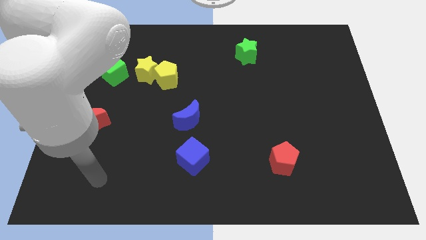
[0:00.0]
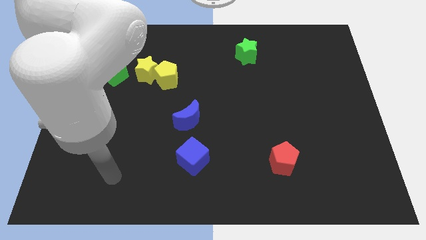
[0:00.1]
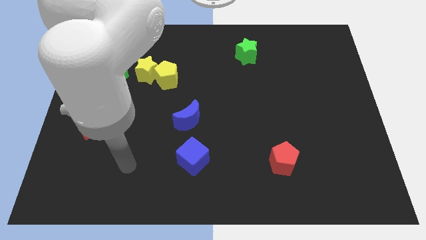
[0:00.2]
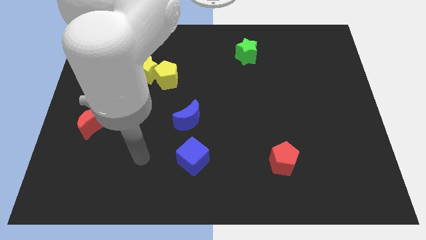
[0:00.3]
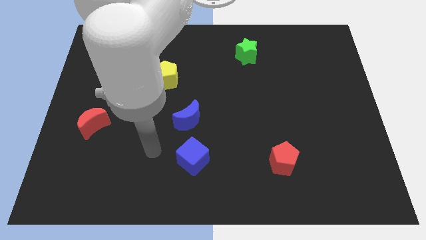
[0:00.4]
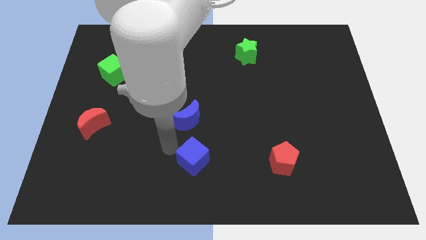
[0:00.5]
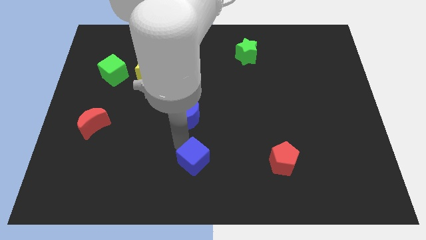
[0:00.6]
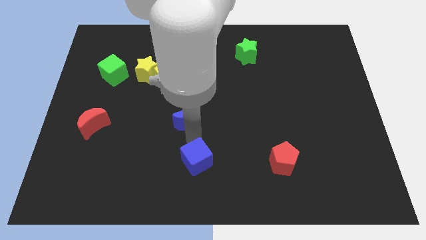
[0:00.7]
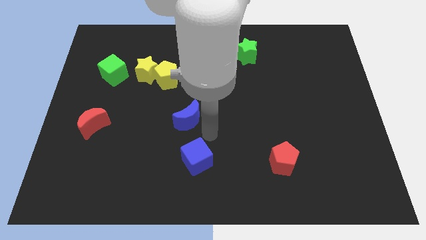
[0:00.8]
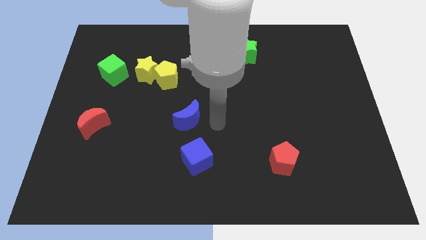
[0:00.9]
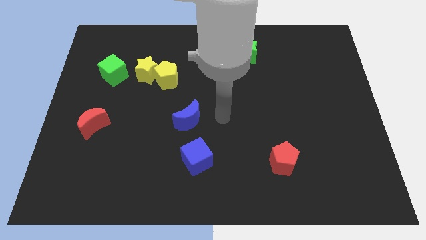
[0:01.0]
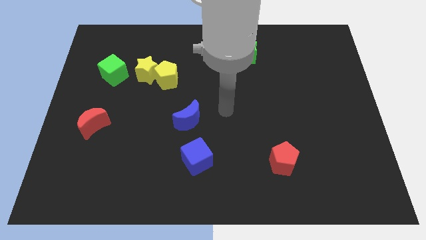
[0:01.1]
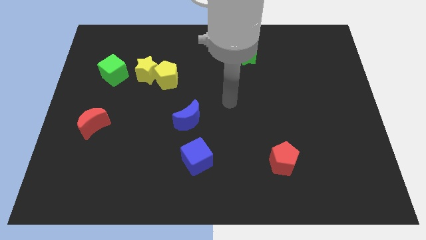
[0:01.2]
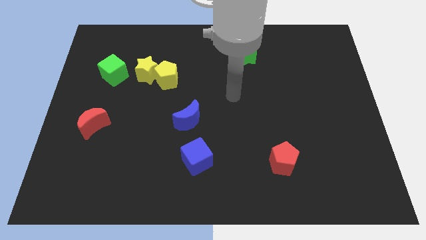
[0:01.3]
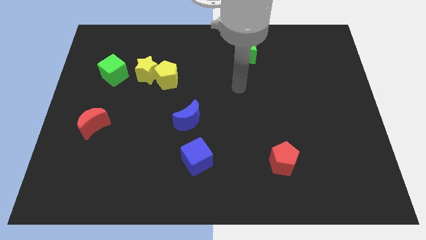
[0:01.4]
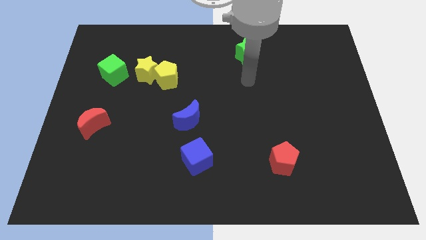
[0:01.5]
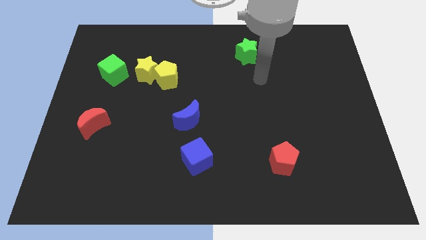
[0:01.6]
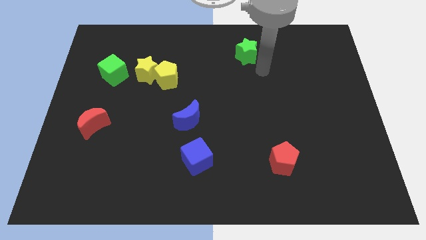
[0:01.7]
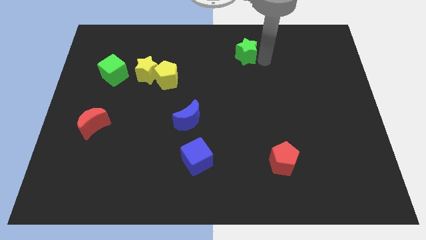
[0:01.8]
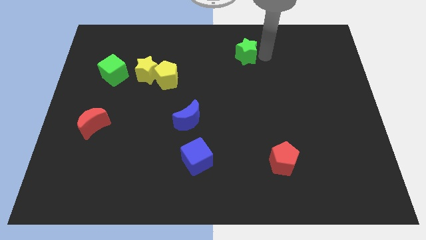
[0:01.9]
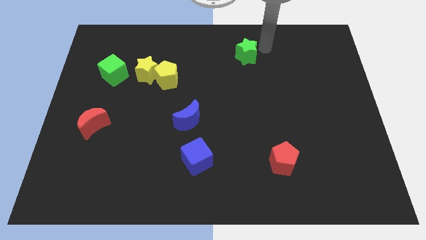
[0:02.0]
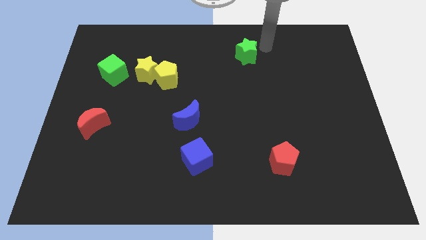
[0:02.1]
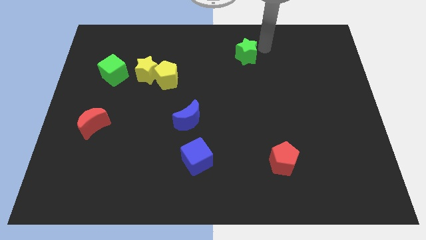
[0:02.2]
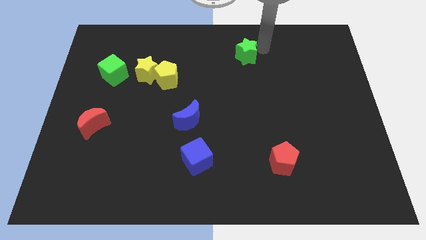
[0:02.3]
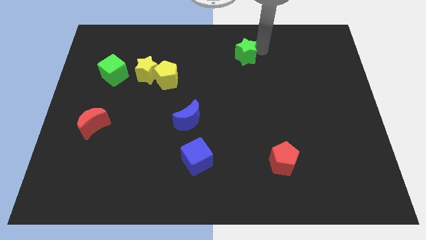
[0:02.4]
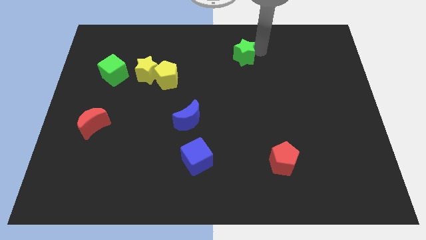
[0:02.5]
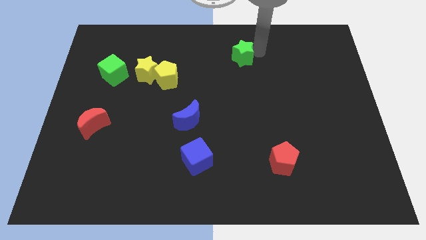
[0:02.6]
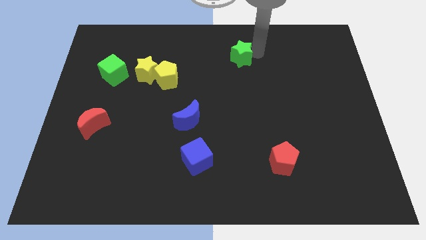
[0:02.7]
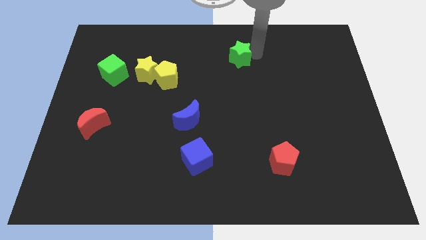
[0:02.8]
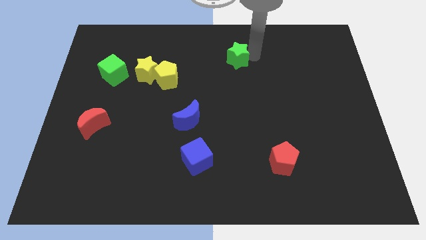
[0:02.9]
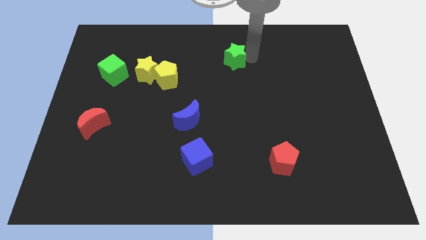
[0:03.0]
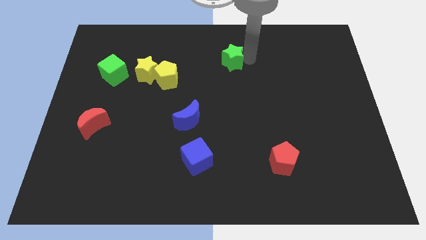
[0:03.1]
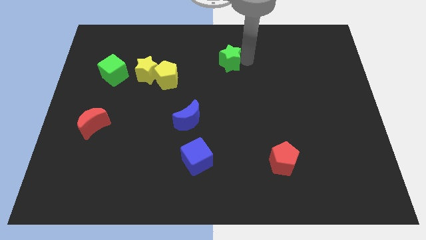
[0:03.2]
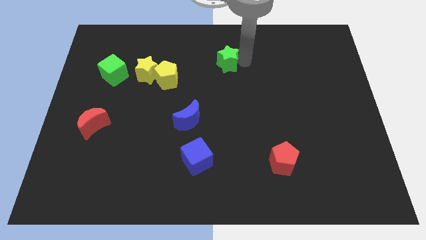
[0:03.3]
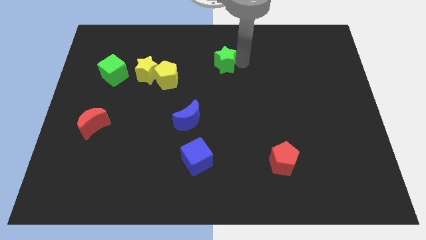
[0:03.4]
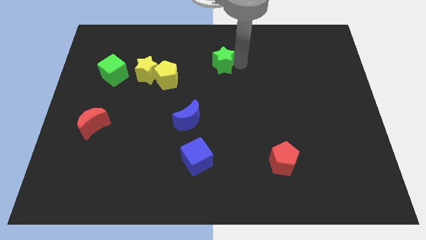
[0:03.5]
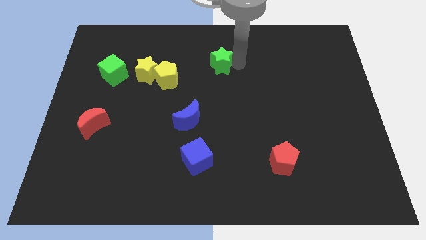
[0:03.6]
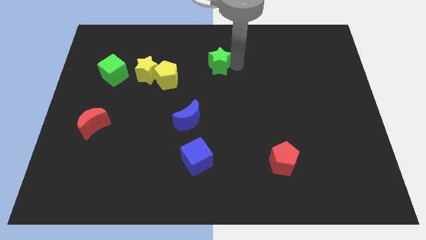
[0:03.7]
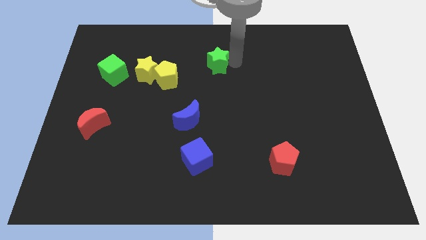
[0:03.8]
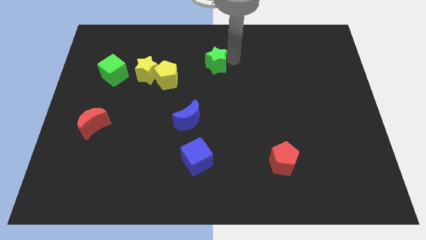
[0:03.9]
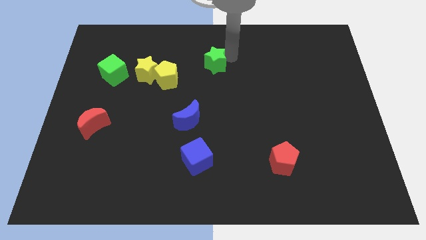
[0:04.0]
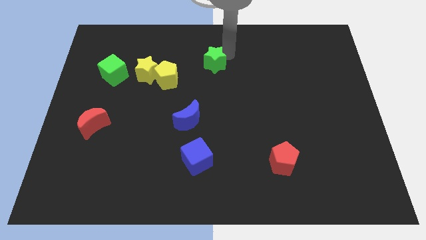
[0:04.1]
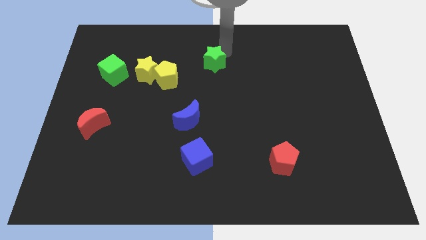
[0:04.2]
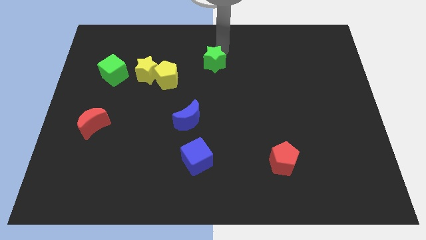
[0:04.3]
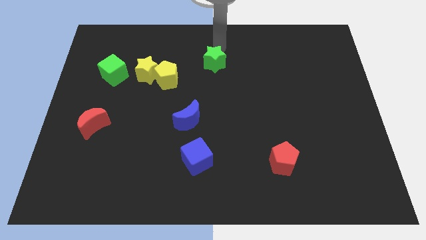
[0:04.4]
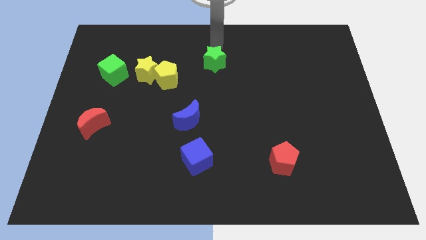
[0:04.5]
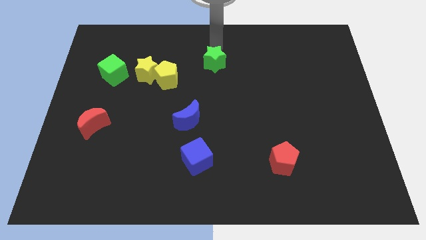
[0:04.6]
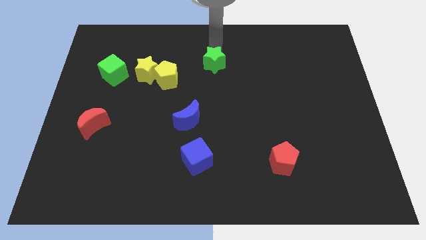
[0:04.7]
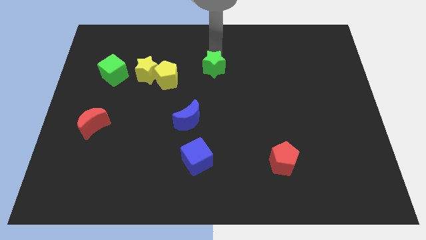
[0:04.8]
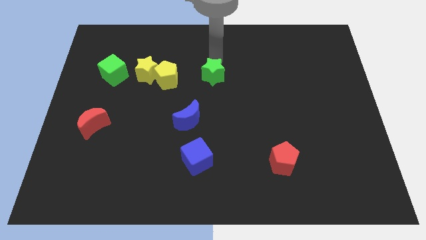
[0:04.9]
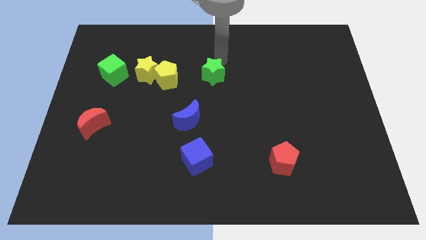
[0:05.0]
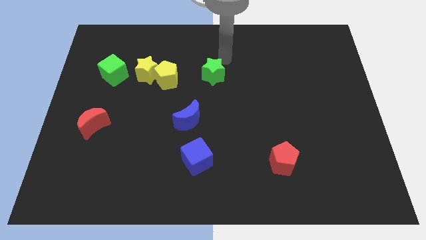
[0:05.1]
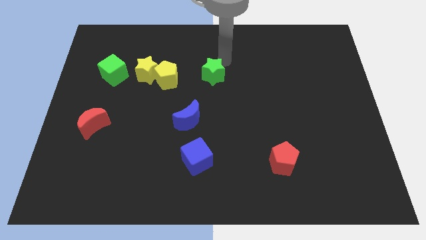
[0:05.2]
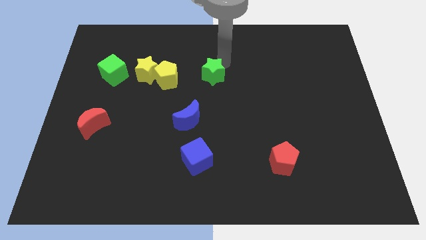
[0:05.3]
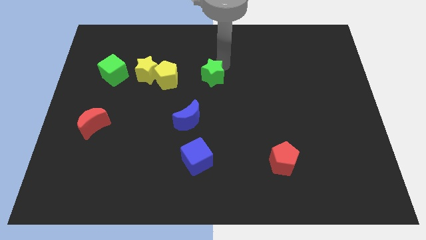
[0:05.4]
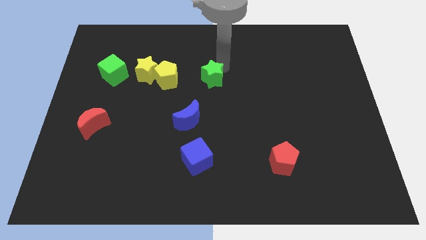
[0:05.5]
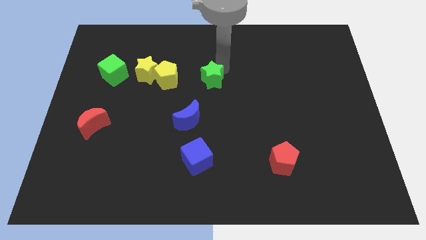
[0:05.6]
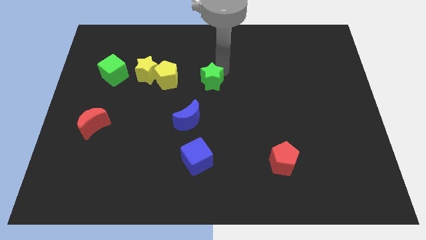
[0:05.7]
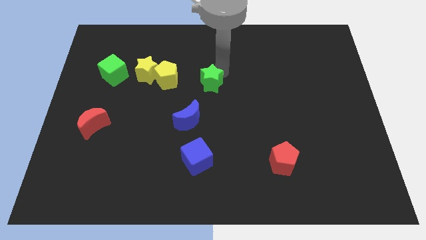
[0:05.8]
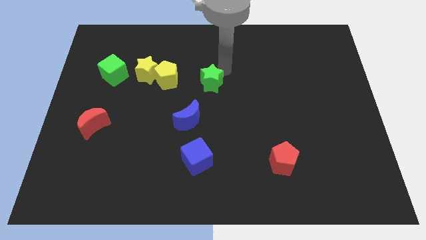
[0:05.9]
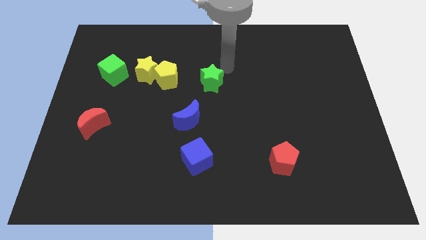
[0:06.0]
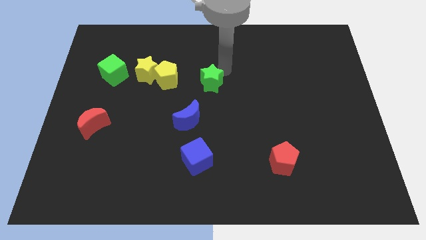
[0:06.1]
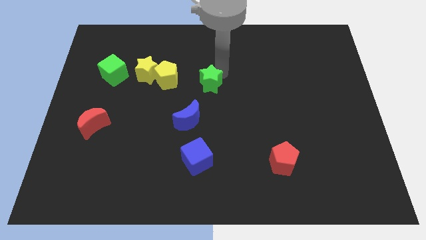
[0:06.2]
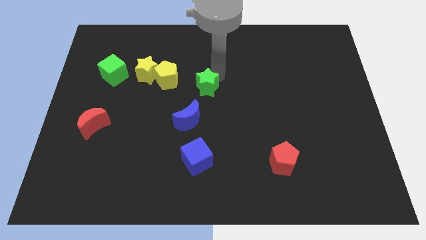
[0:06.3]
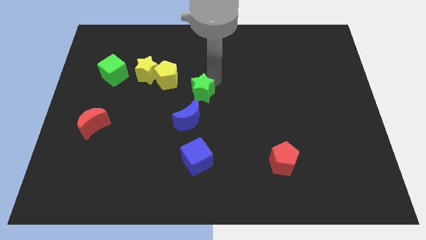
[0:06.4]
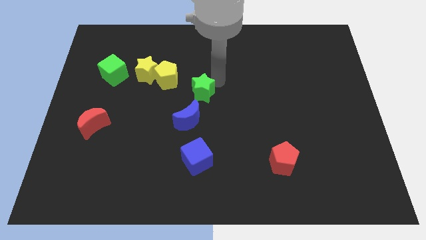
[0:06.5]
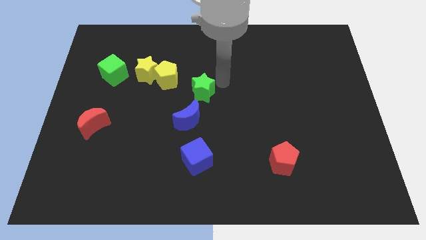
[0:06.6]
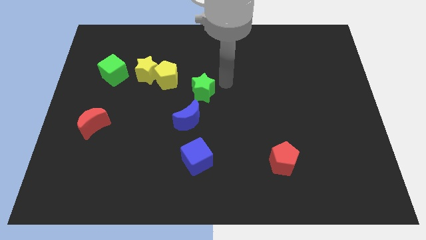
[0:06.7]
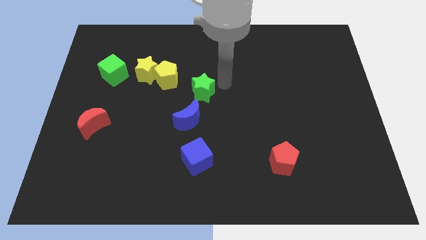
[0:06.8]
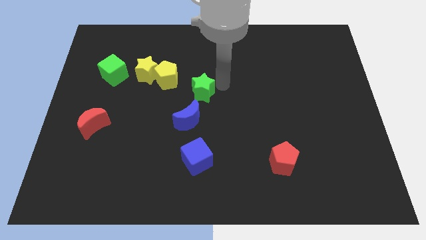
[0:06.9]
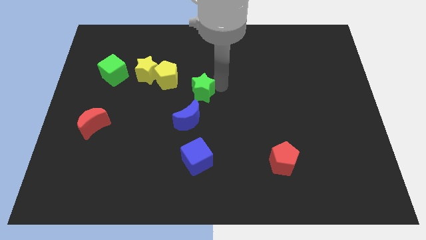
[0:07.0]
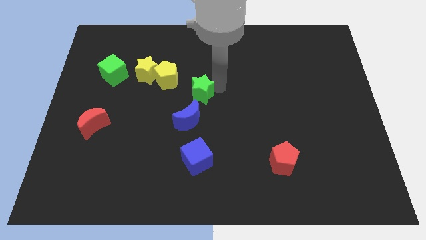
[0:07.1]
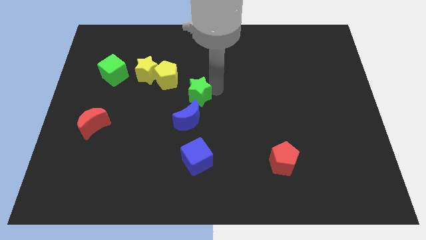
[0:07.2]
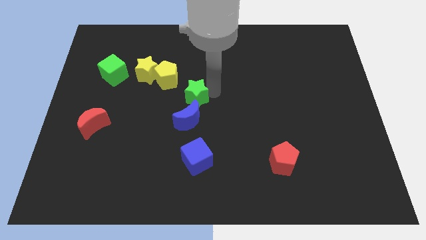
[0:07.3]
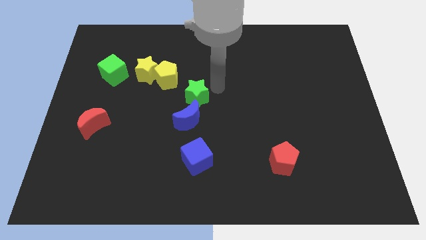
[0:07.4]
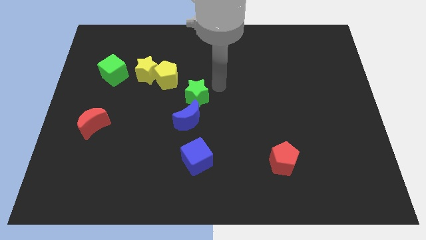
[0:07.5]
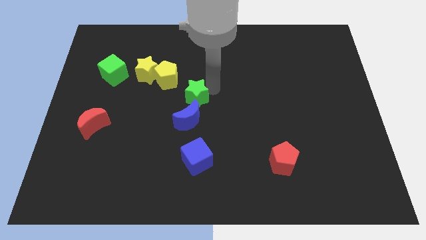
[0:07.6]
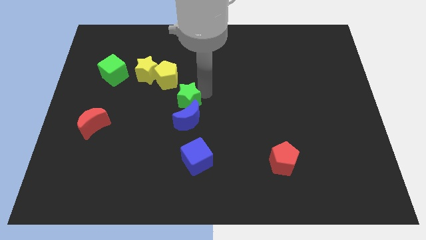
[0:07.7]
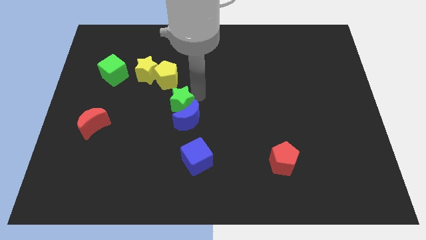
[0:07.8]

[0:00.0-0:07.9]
put the green star to the bottom of the yellow pentagon

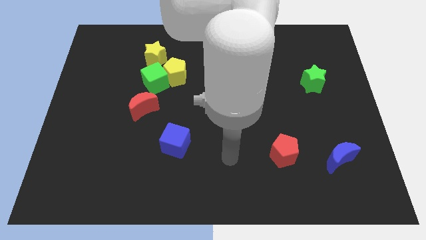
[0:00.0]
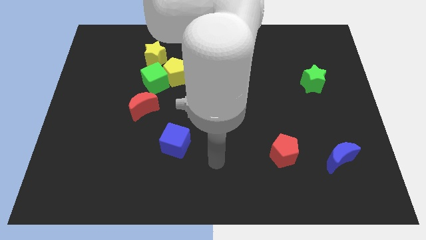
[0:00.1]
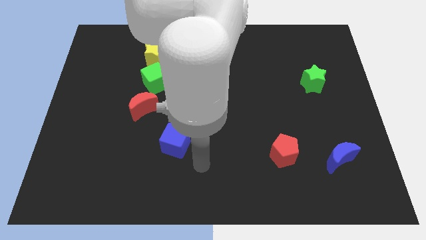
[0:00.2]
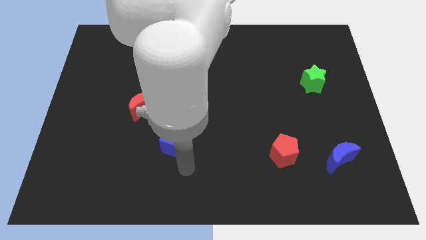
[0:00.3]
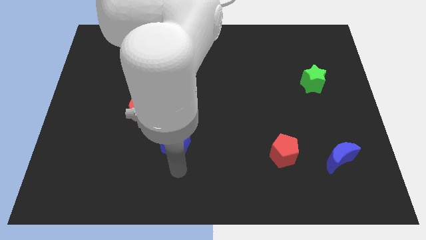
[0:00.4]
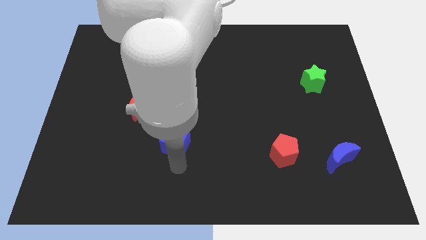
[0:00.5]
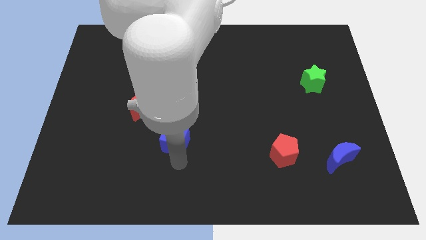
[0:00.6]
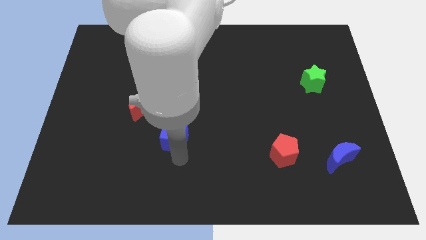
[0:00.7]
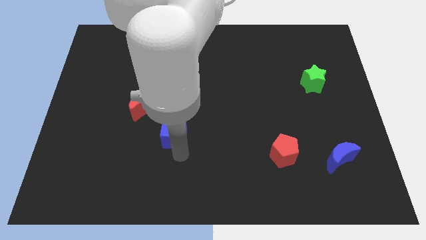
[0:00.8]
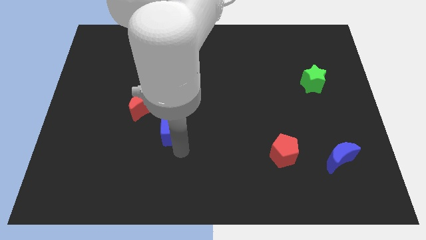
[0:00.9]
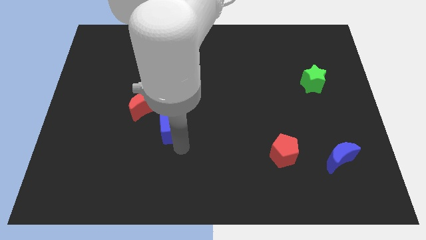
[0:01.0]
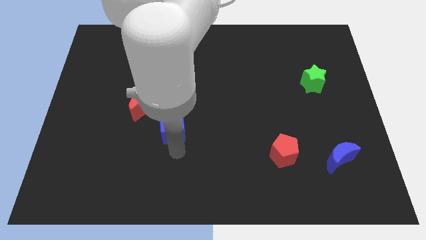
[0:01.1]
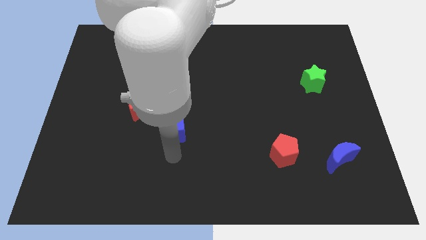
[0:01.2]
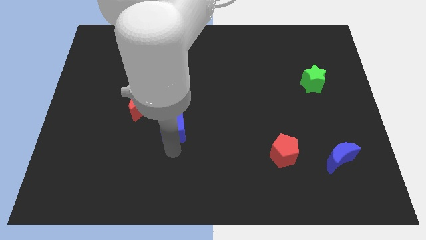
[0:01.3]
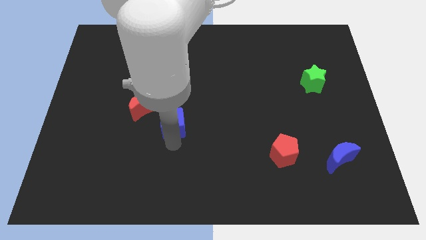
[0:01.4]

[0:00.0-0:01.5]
move the blue cube to the bottom of the yellow pentagon
